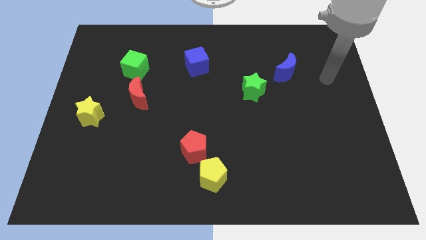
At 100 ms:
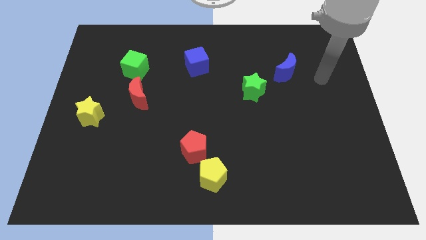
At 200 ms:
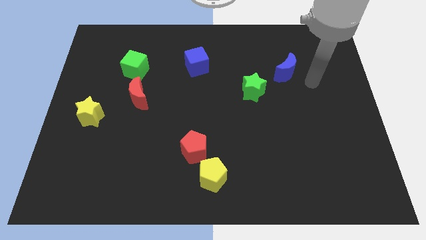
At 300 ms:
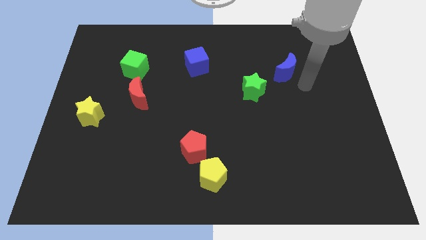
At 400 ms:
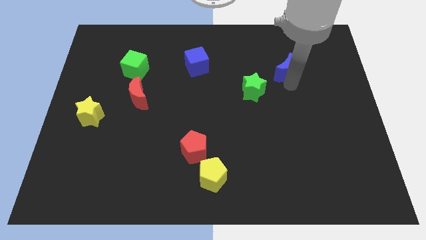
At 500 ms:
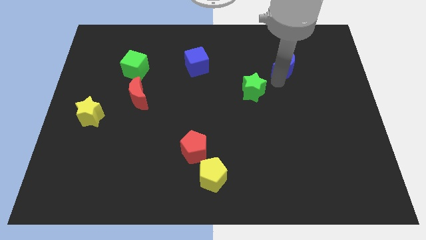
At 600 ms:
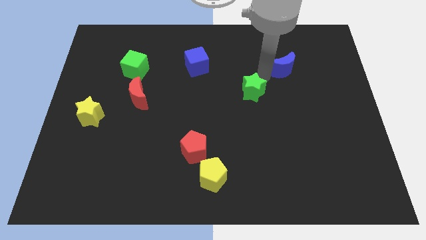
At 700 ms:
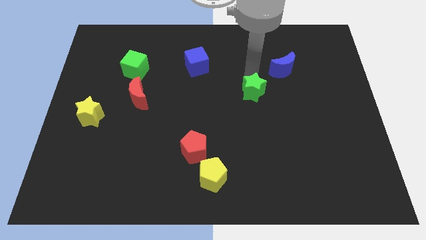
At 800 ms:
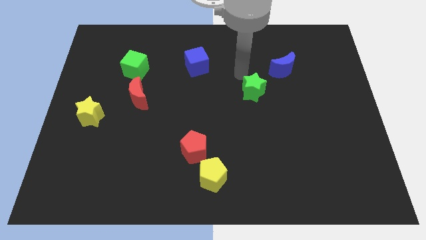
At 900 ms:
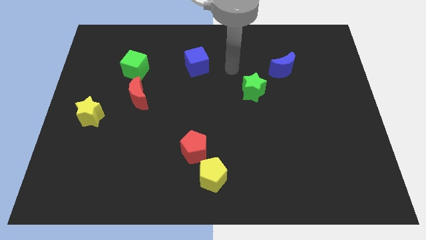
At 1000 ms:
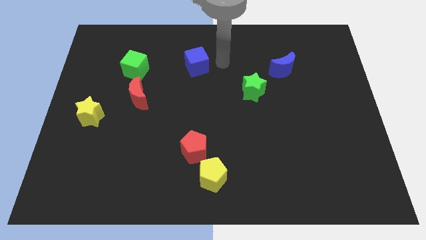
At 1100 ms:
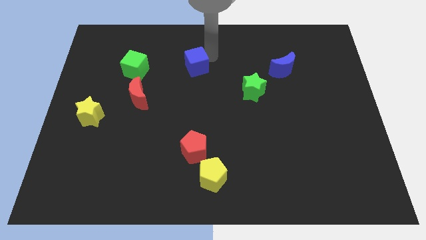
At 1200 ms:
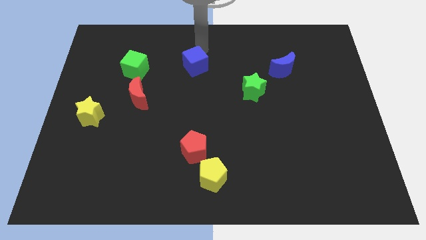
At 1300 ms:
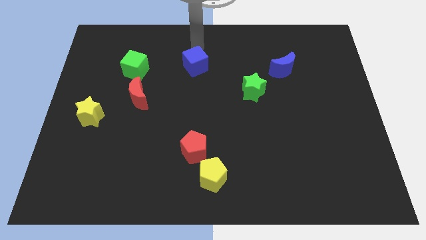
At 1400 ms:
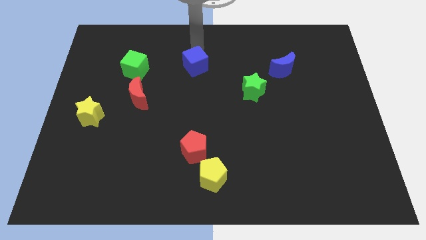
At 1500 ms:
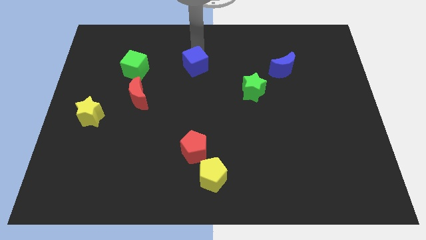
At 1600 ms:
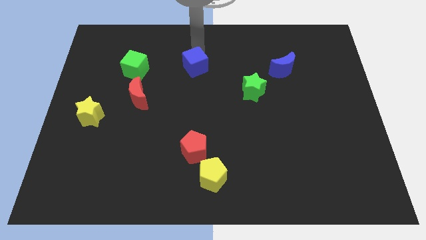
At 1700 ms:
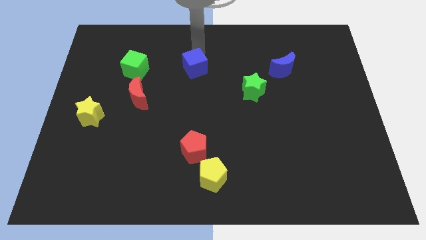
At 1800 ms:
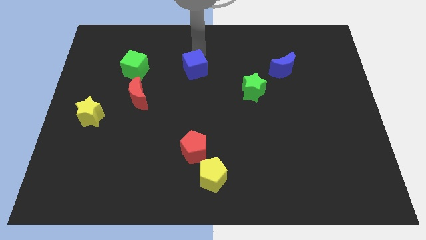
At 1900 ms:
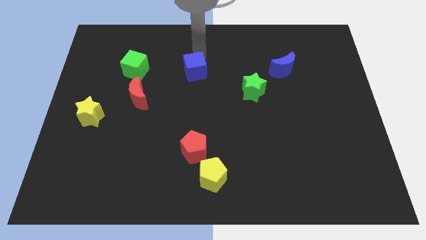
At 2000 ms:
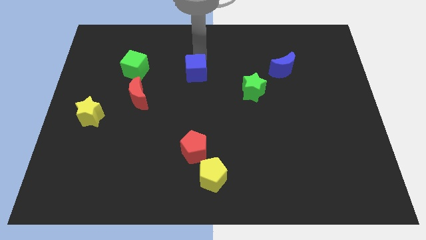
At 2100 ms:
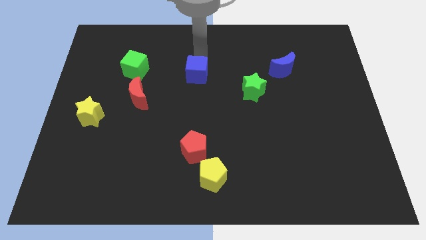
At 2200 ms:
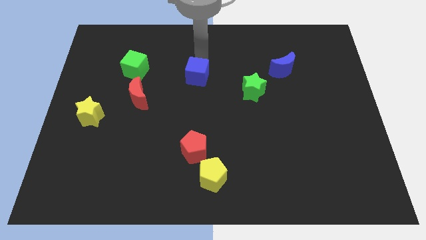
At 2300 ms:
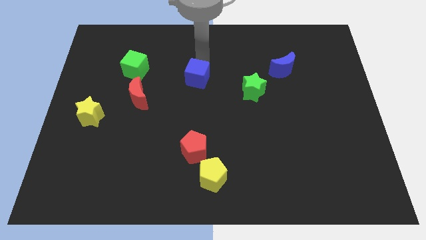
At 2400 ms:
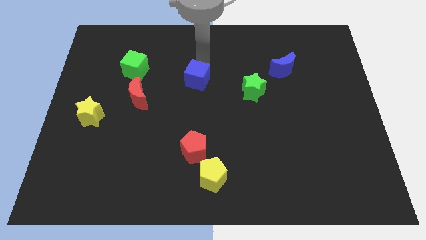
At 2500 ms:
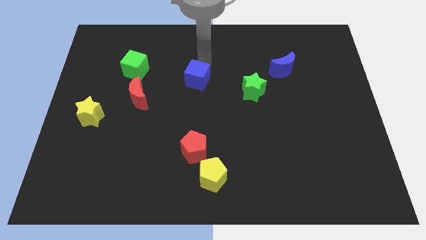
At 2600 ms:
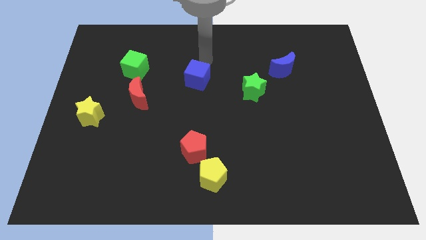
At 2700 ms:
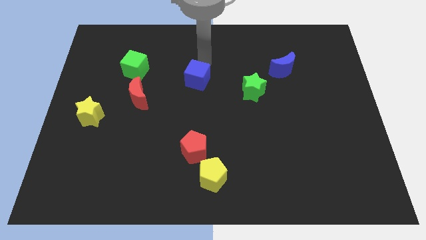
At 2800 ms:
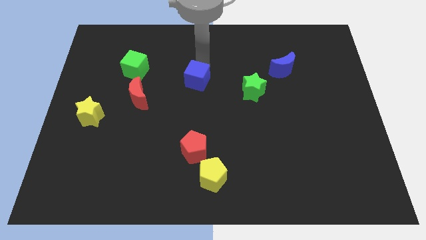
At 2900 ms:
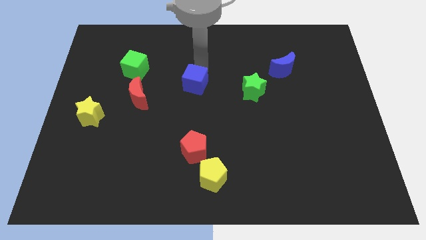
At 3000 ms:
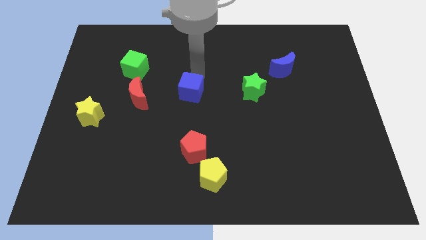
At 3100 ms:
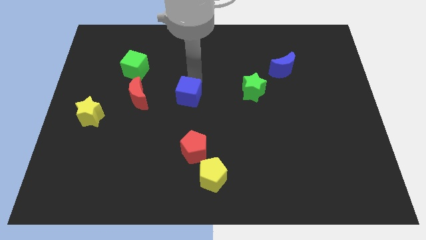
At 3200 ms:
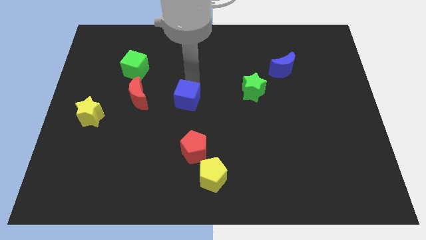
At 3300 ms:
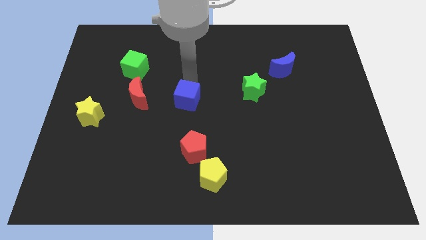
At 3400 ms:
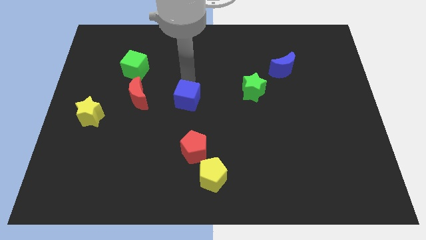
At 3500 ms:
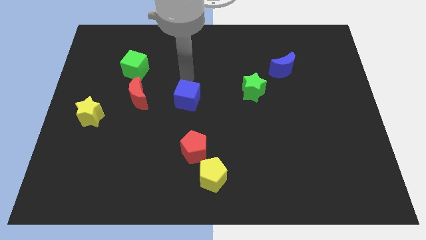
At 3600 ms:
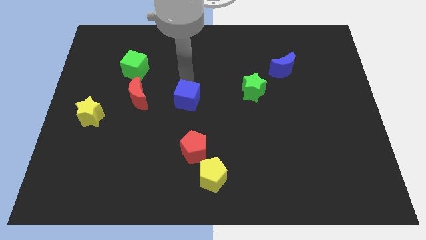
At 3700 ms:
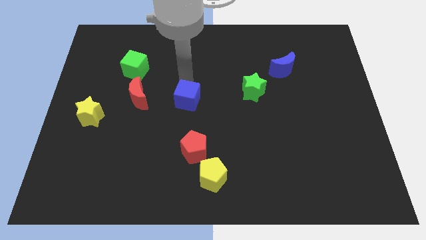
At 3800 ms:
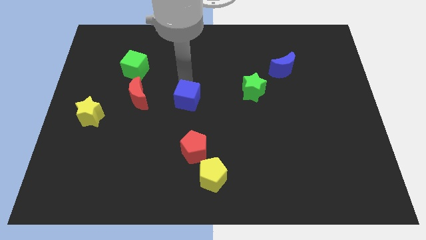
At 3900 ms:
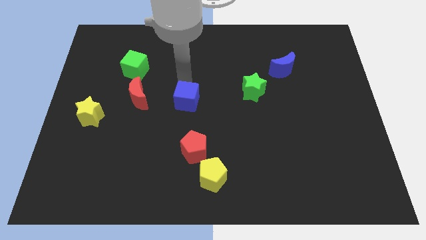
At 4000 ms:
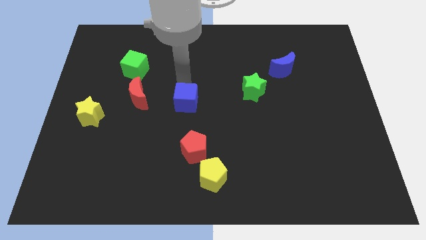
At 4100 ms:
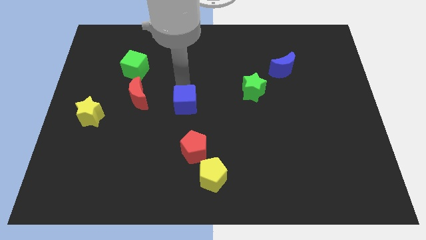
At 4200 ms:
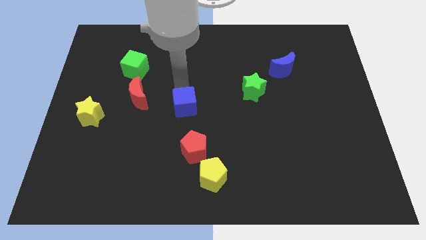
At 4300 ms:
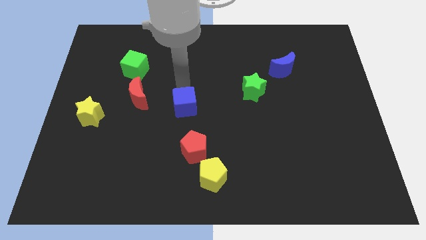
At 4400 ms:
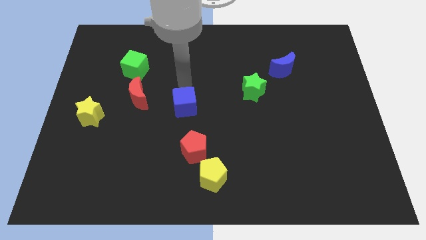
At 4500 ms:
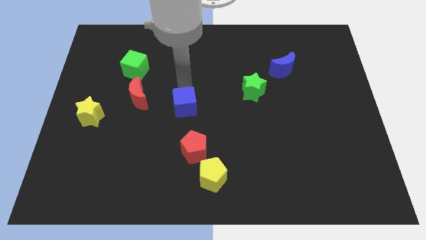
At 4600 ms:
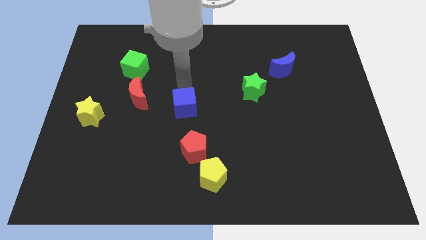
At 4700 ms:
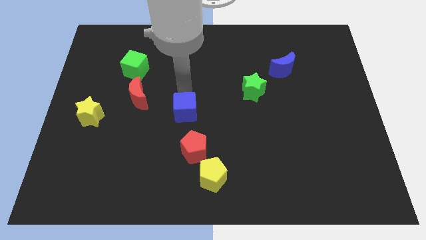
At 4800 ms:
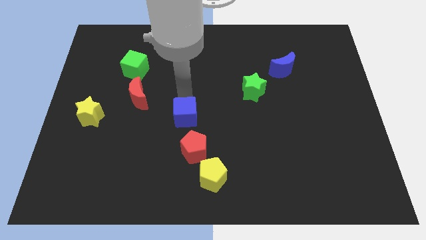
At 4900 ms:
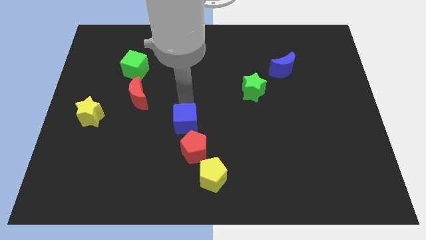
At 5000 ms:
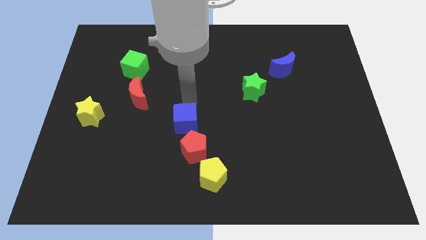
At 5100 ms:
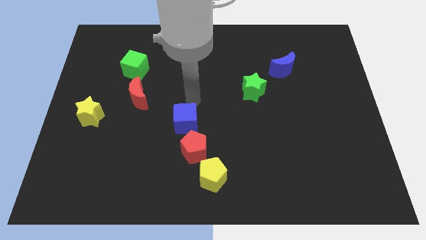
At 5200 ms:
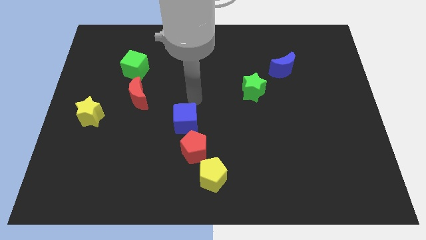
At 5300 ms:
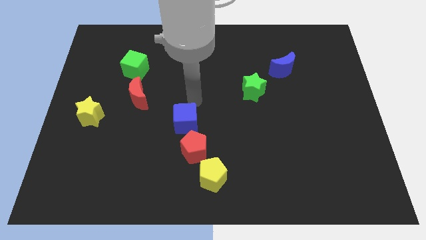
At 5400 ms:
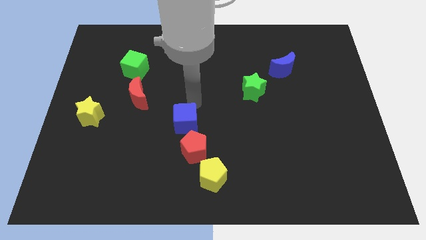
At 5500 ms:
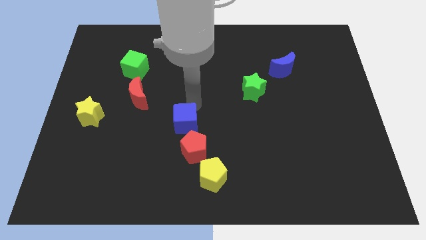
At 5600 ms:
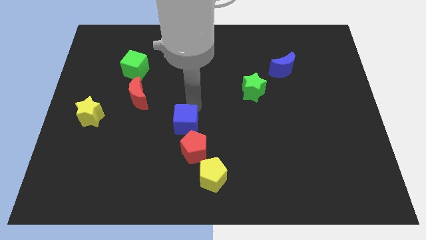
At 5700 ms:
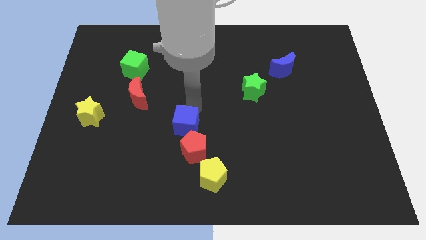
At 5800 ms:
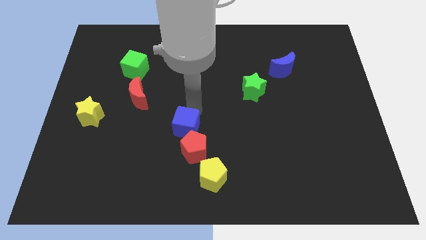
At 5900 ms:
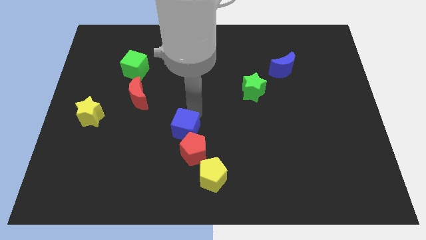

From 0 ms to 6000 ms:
move the blue cube down

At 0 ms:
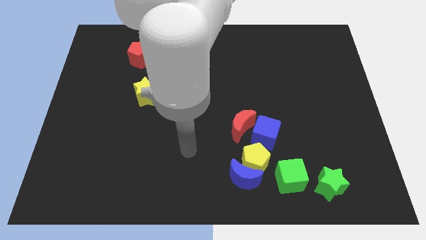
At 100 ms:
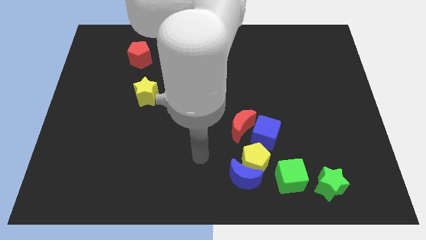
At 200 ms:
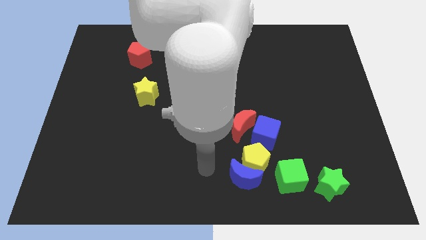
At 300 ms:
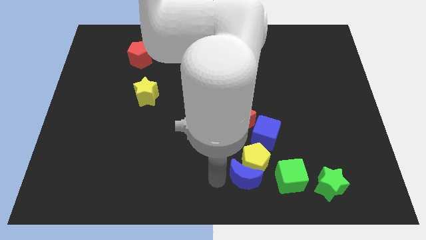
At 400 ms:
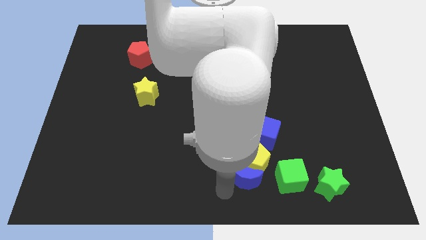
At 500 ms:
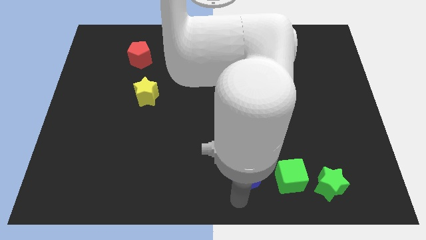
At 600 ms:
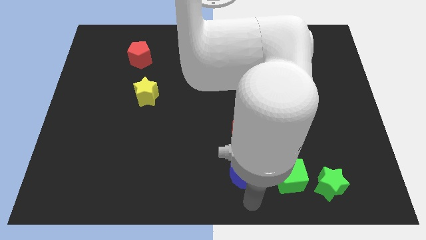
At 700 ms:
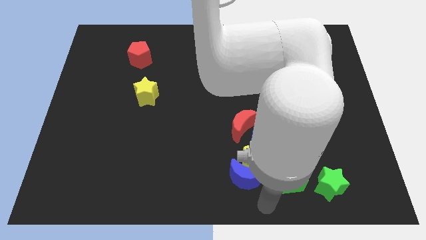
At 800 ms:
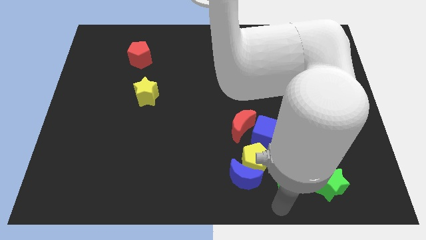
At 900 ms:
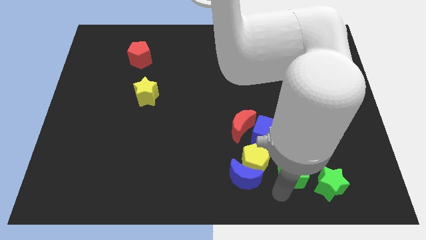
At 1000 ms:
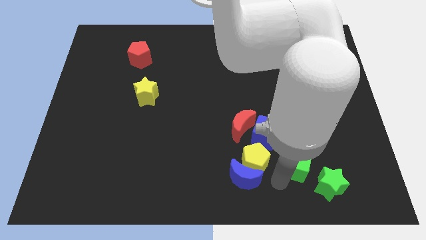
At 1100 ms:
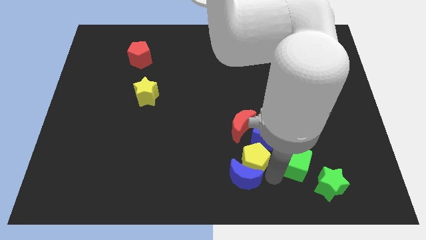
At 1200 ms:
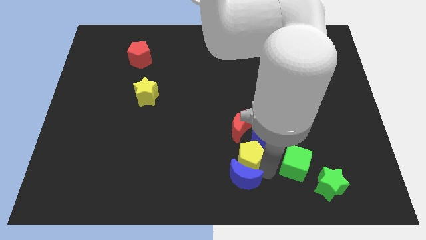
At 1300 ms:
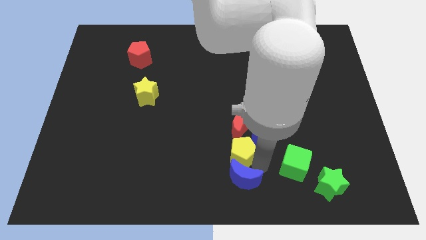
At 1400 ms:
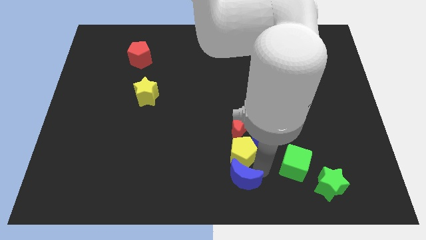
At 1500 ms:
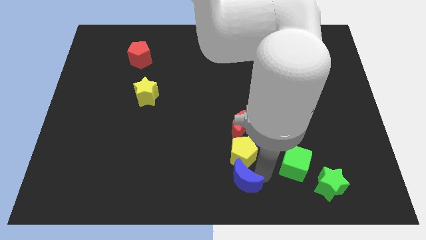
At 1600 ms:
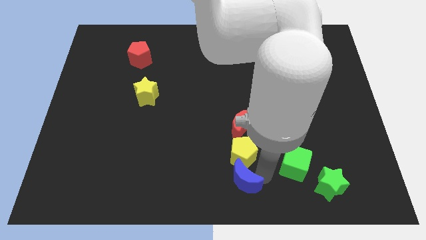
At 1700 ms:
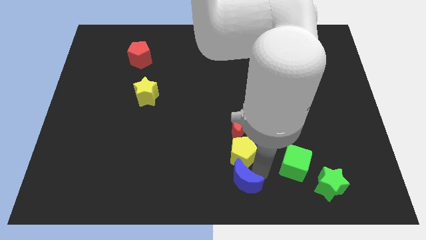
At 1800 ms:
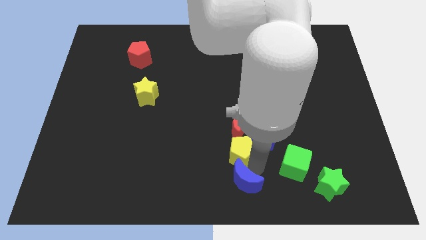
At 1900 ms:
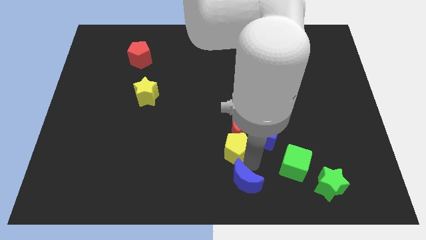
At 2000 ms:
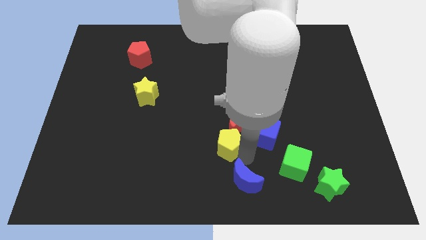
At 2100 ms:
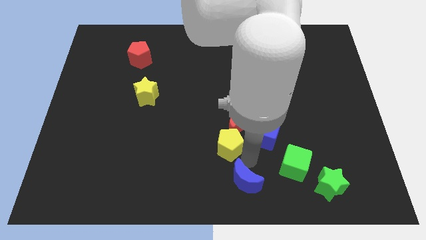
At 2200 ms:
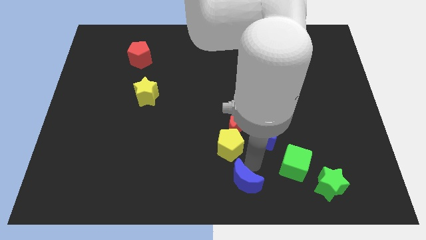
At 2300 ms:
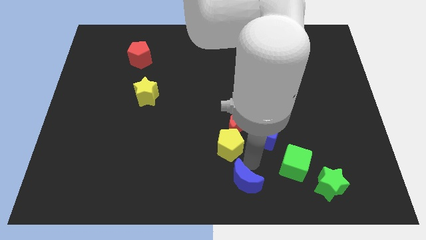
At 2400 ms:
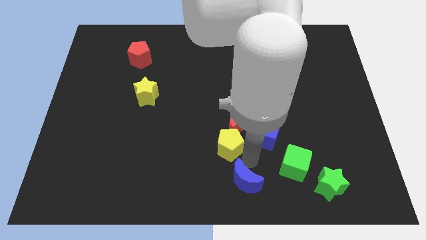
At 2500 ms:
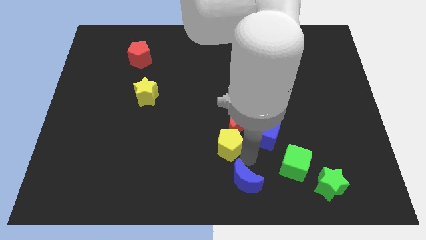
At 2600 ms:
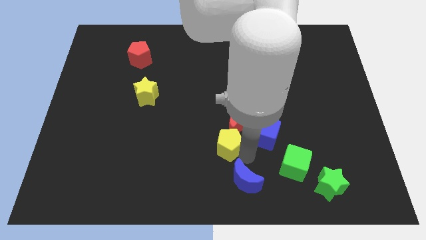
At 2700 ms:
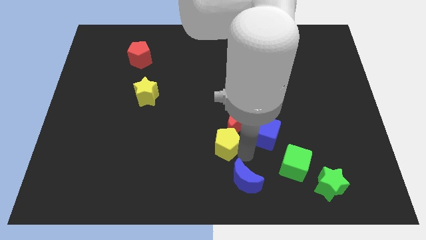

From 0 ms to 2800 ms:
slide the yellow pentagon diagonally upwards and left somewhat
